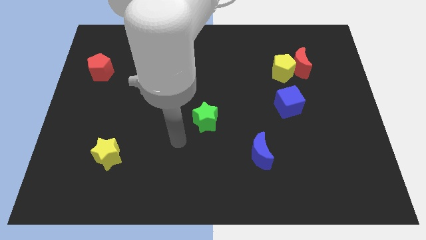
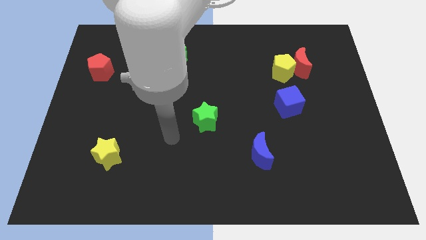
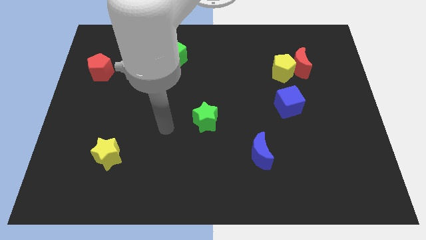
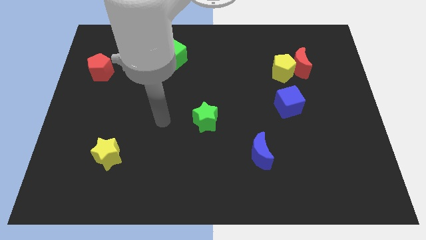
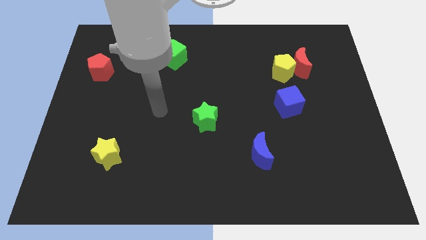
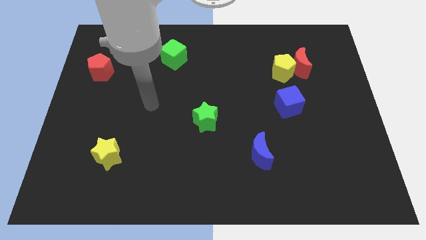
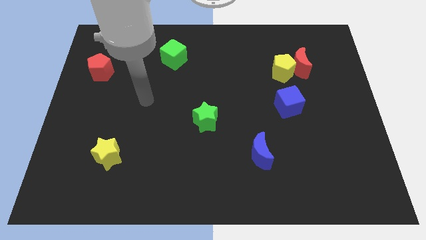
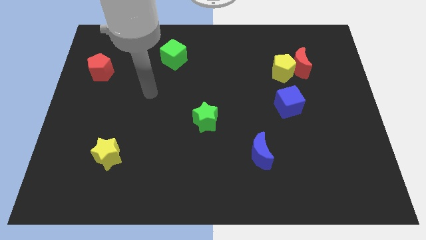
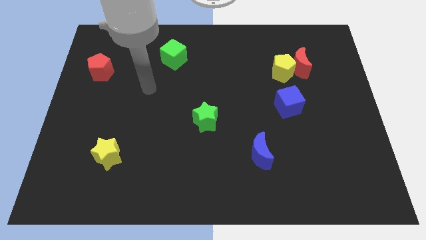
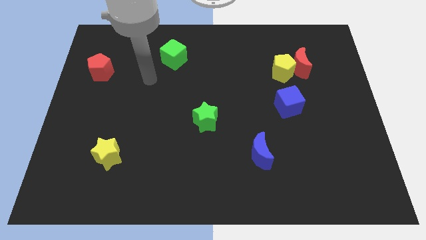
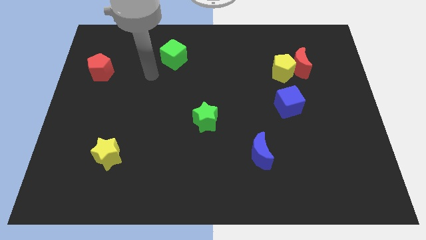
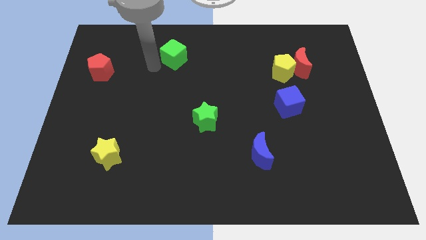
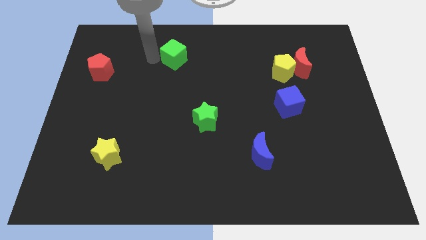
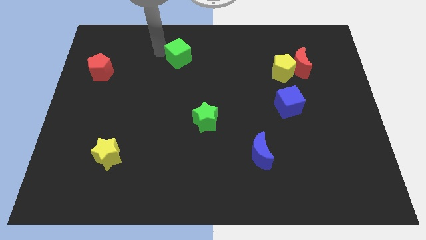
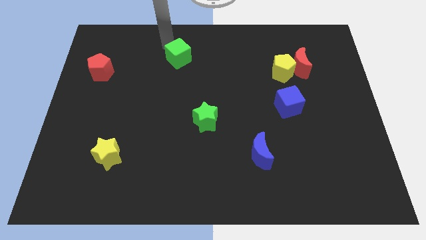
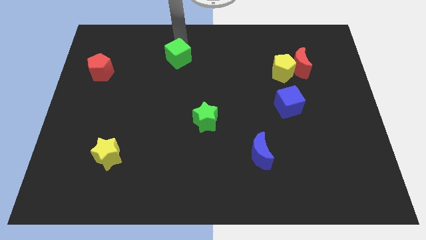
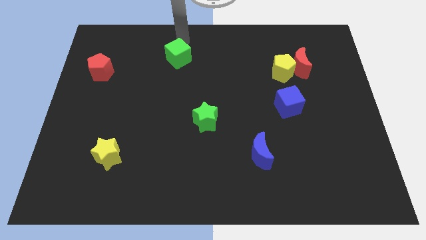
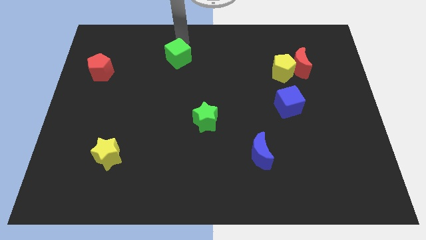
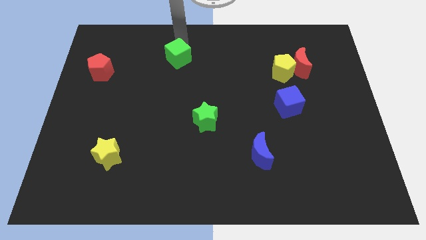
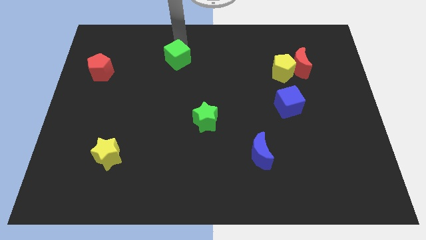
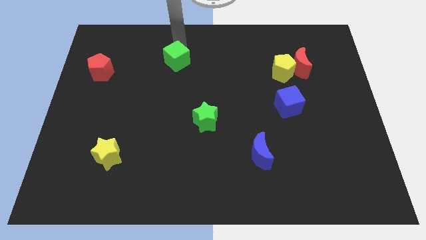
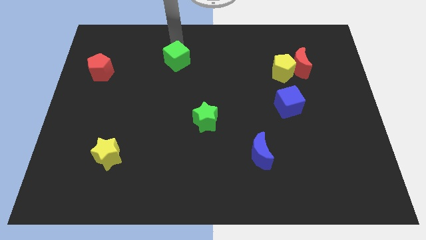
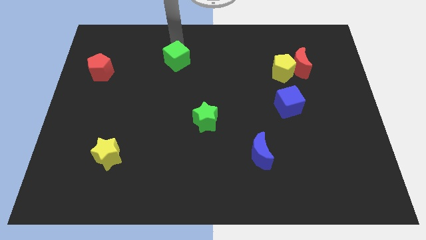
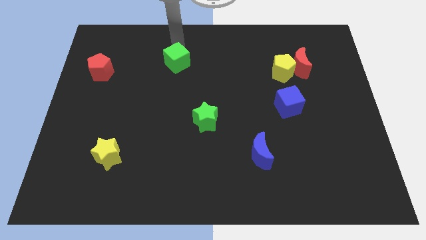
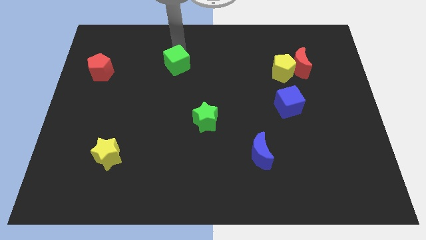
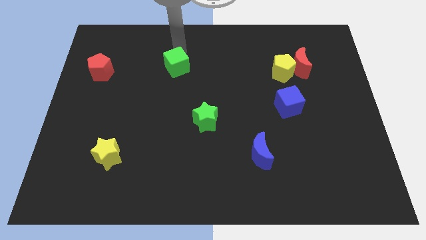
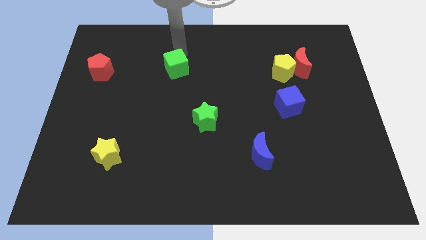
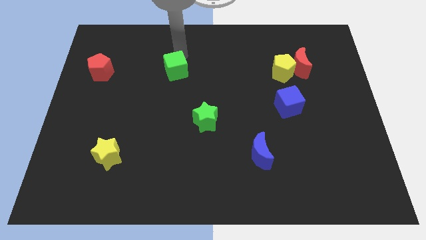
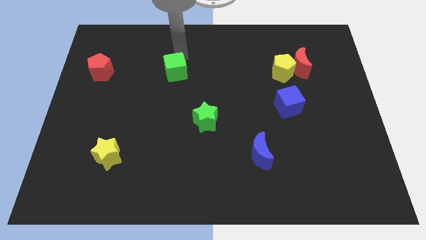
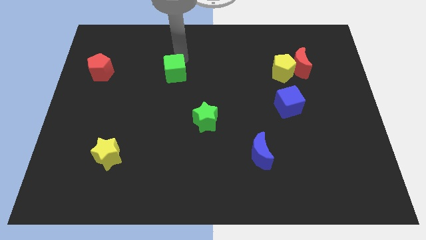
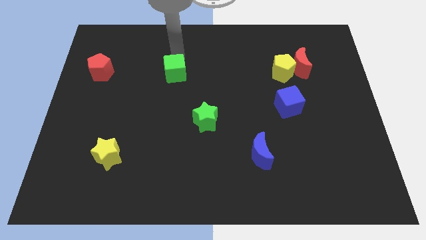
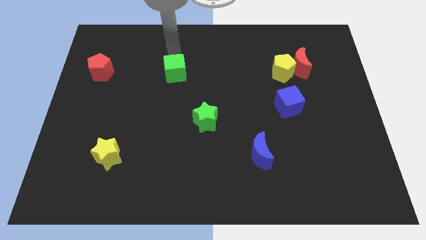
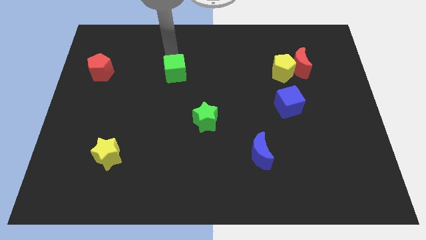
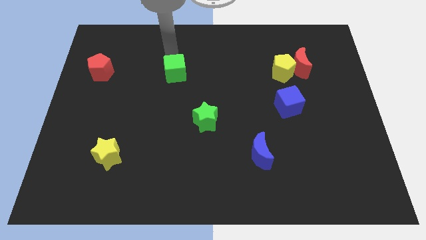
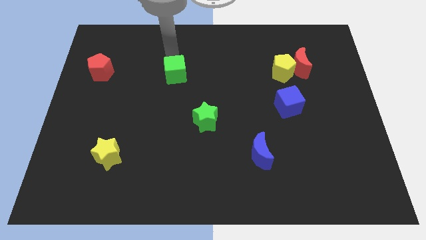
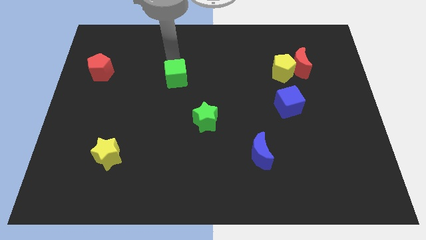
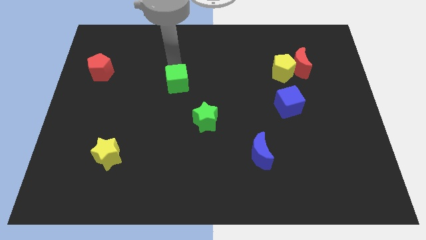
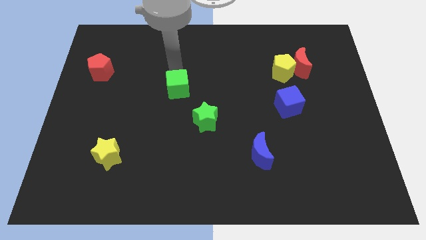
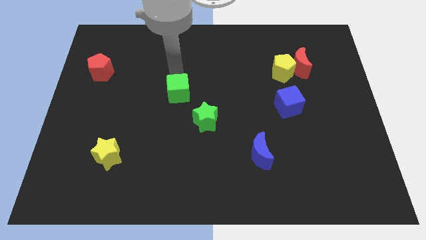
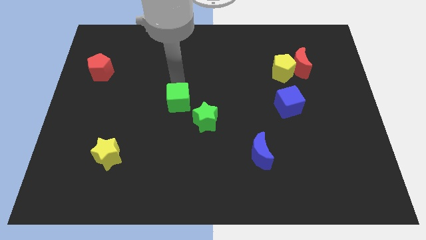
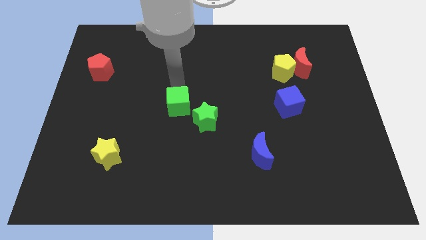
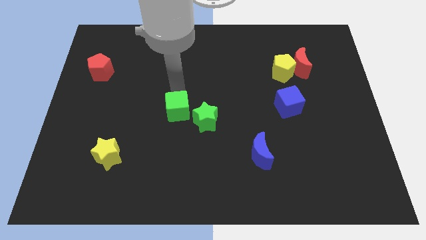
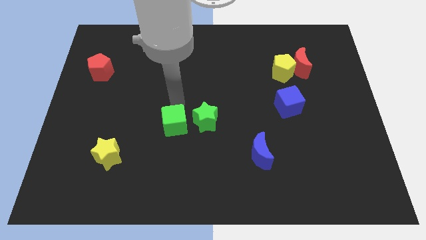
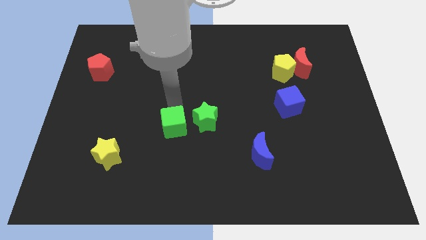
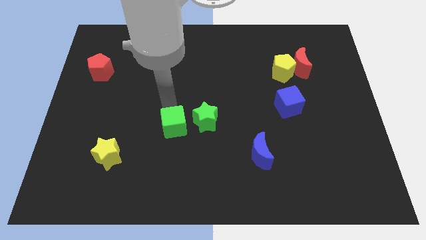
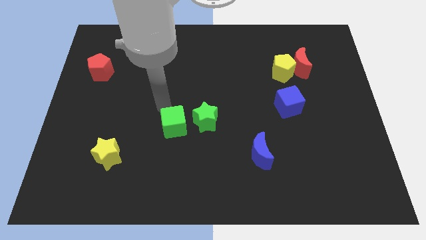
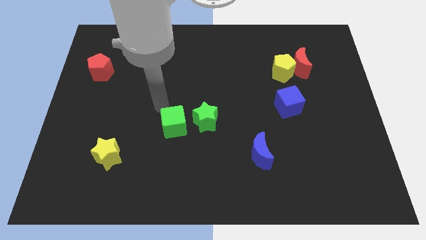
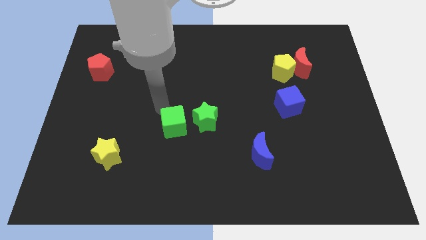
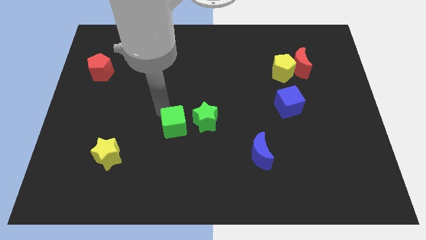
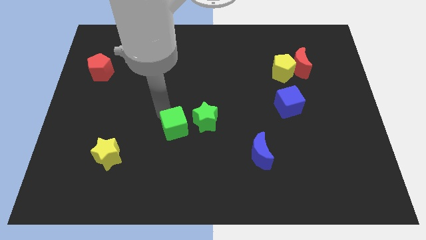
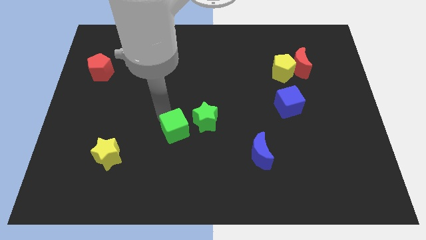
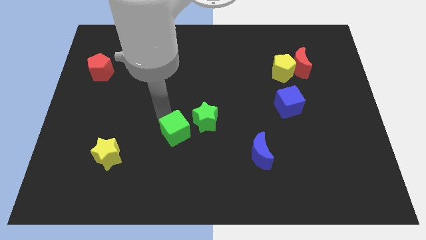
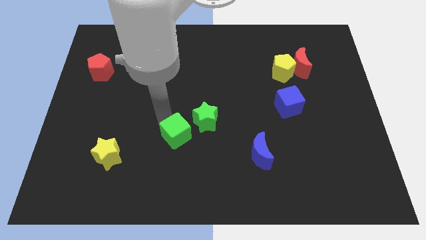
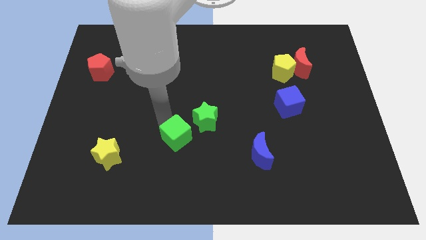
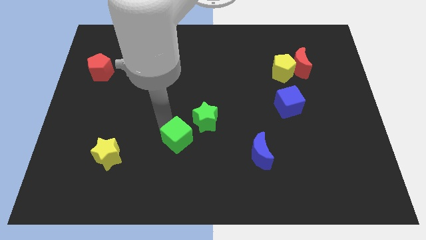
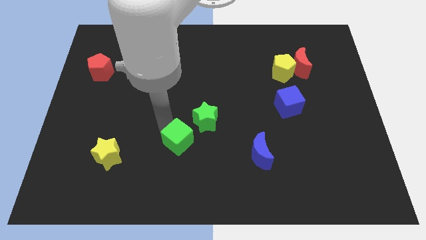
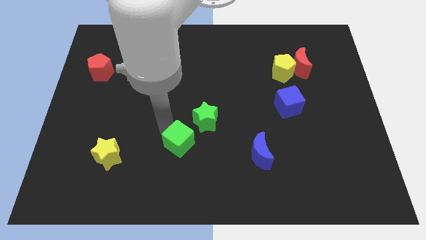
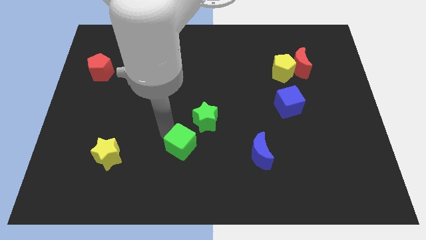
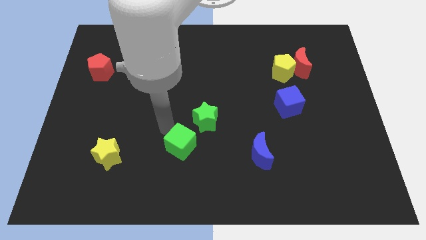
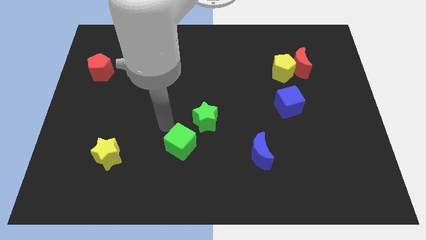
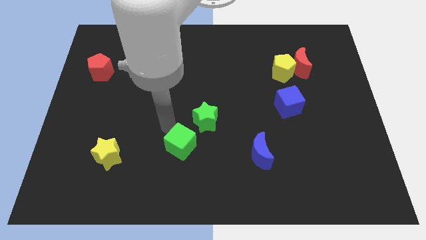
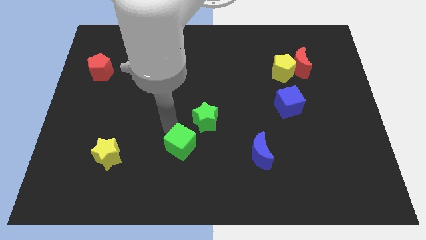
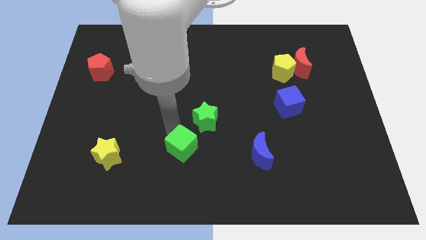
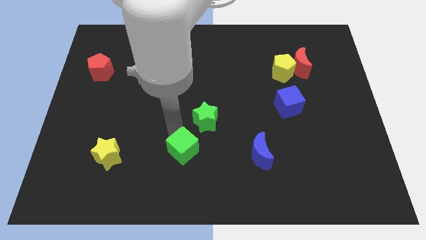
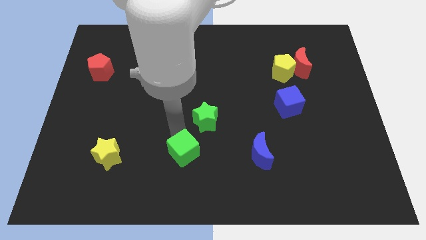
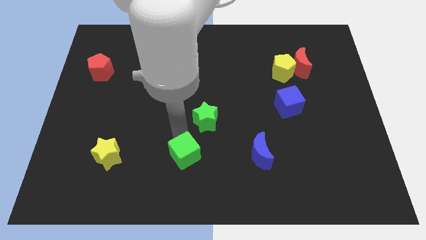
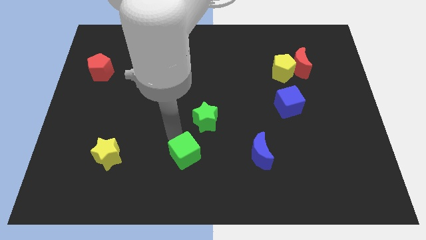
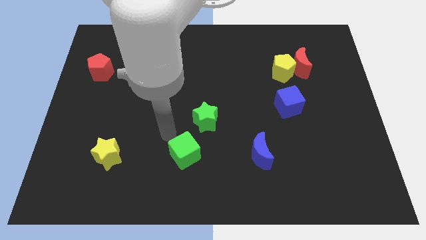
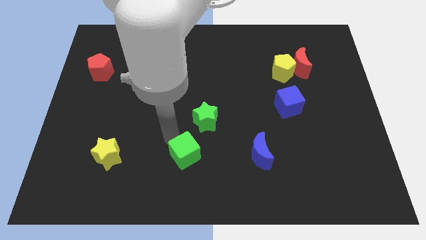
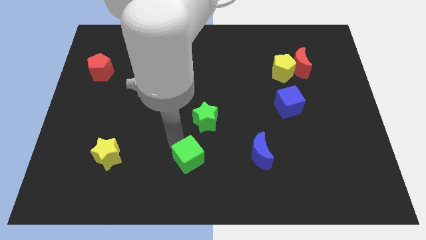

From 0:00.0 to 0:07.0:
push the green cube to the bottom side
